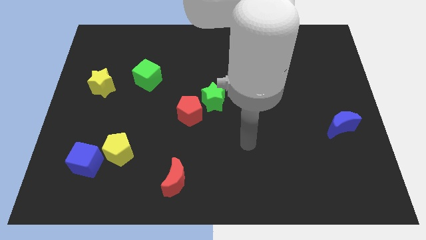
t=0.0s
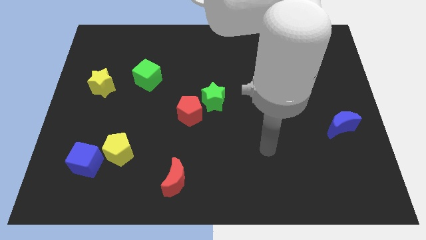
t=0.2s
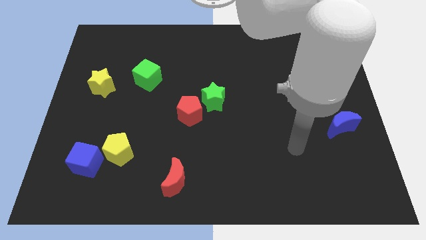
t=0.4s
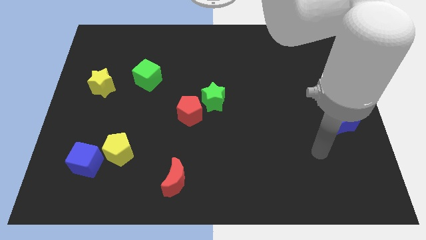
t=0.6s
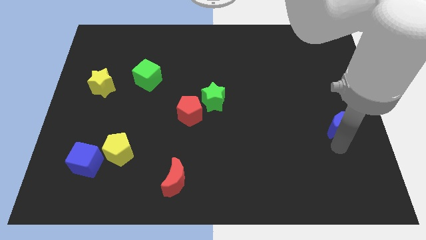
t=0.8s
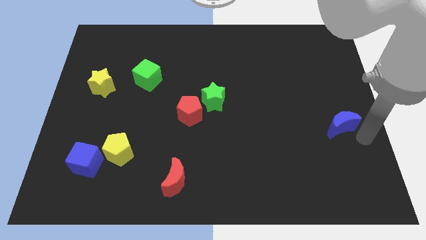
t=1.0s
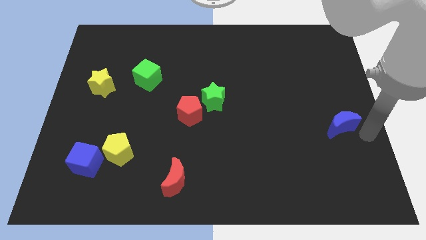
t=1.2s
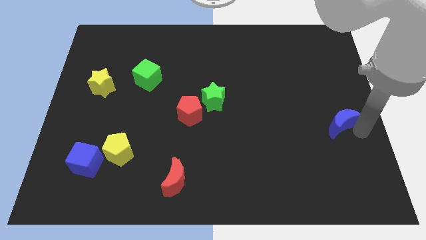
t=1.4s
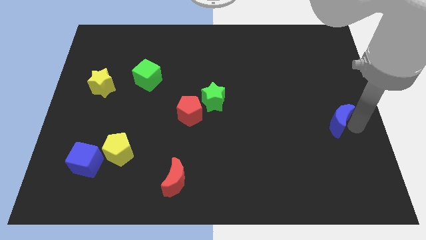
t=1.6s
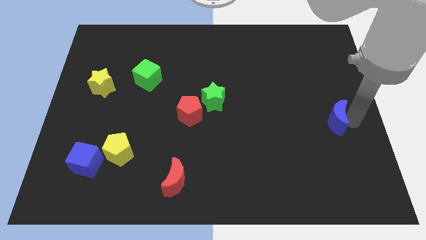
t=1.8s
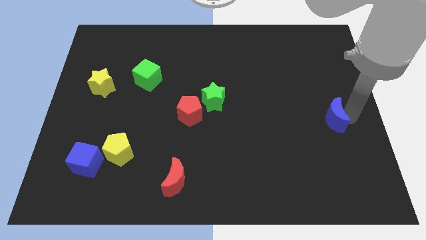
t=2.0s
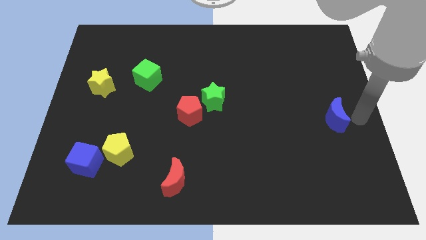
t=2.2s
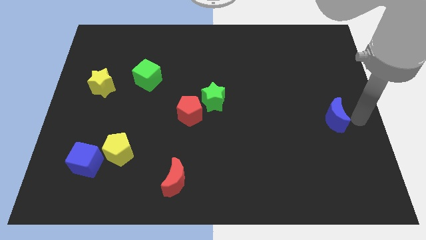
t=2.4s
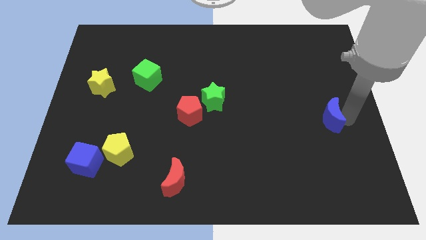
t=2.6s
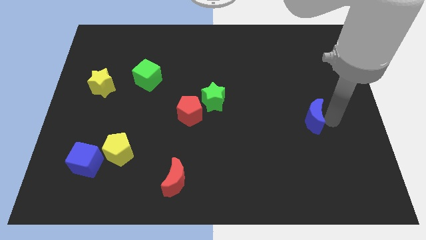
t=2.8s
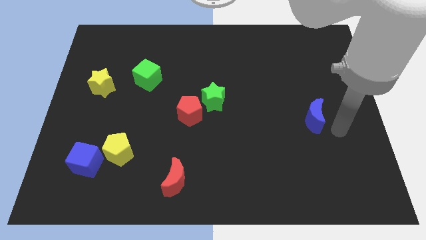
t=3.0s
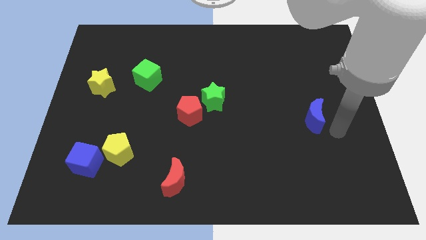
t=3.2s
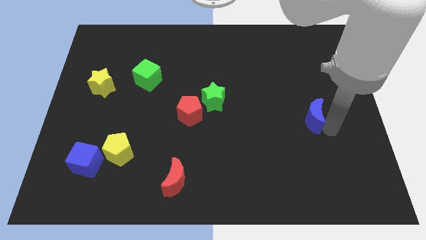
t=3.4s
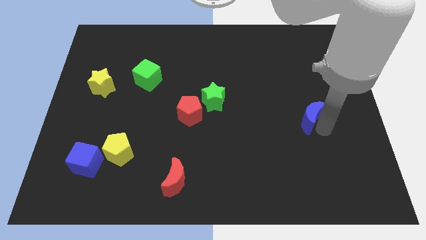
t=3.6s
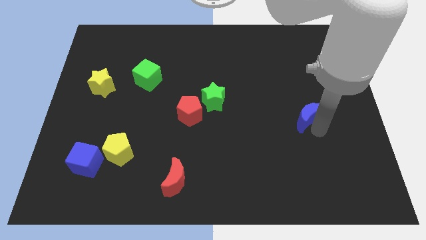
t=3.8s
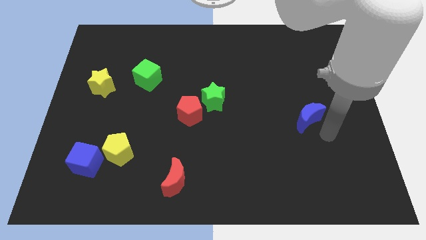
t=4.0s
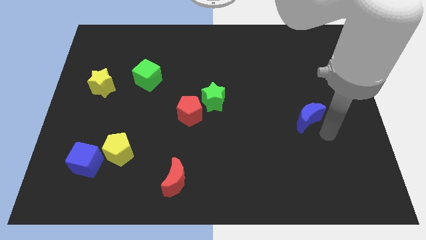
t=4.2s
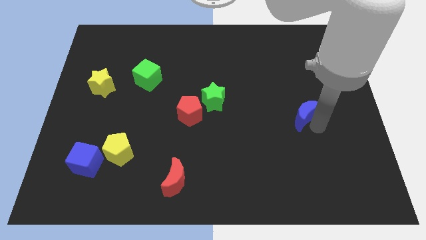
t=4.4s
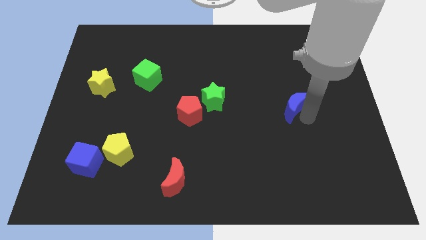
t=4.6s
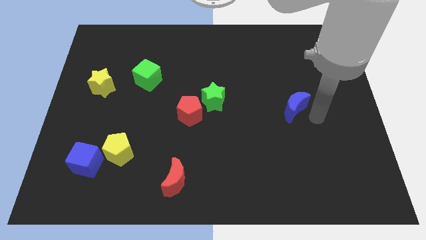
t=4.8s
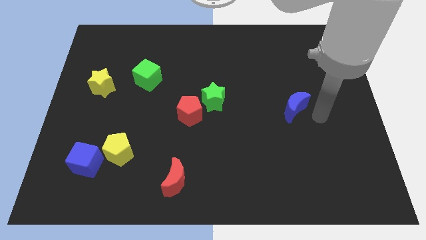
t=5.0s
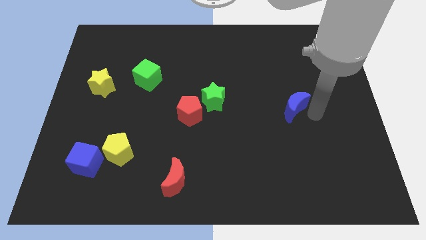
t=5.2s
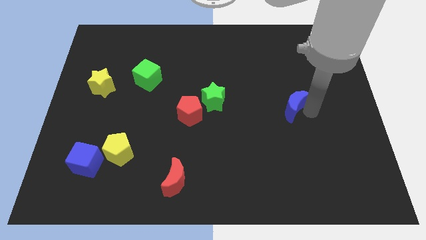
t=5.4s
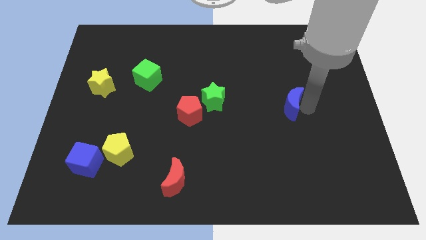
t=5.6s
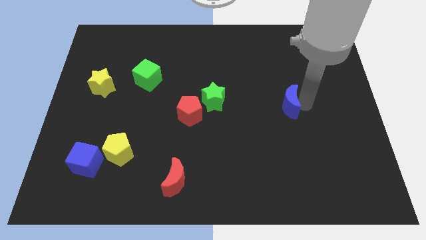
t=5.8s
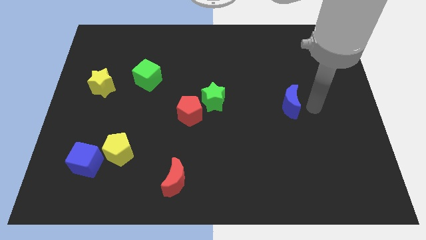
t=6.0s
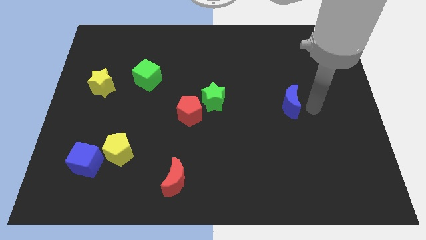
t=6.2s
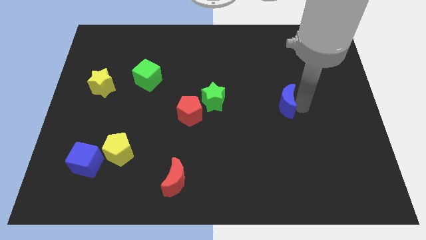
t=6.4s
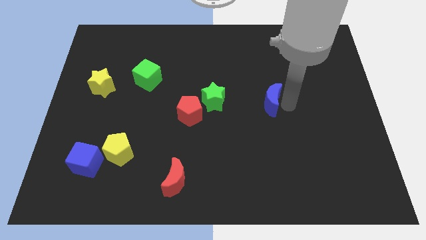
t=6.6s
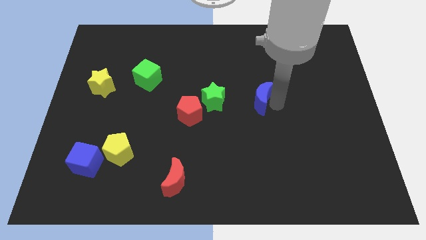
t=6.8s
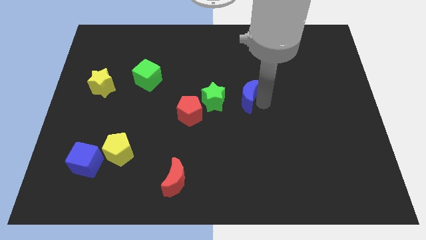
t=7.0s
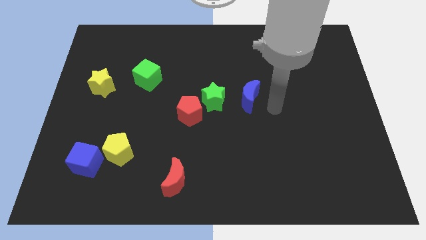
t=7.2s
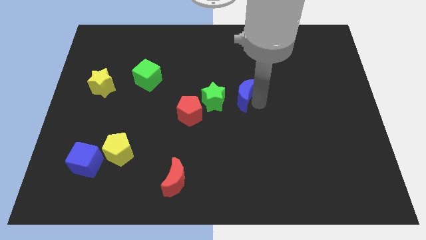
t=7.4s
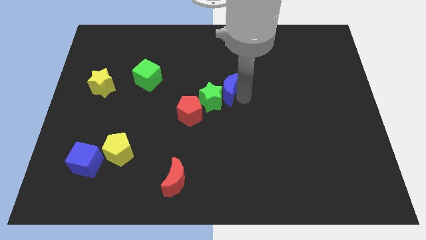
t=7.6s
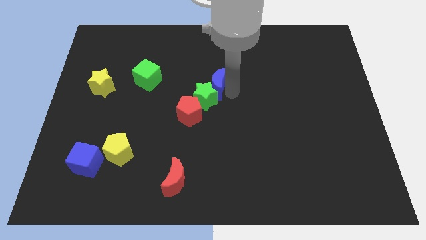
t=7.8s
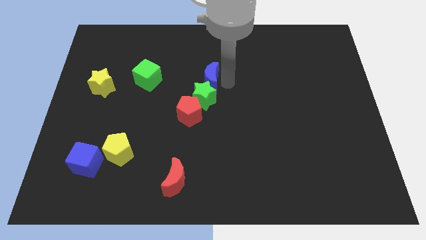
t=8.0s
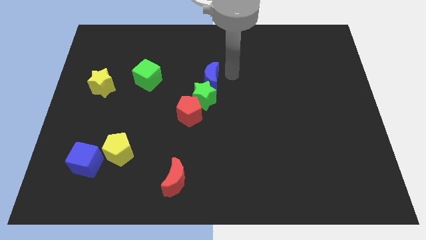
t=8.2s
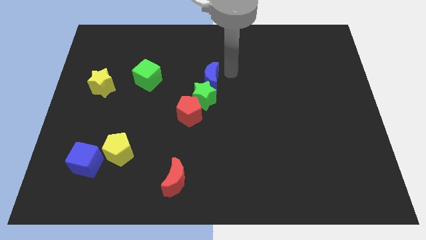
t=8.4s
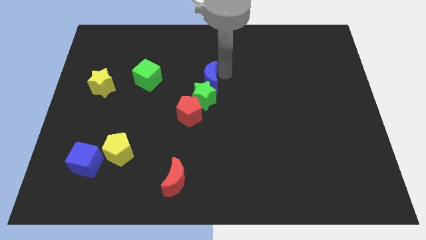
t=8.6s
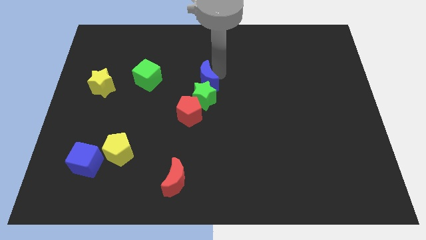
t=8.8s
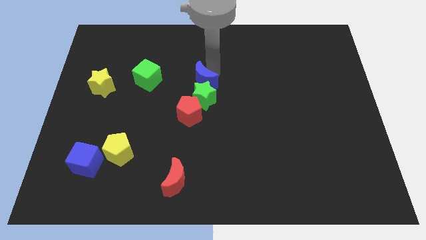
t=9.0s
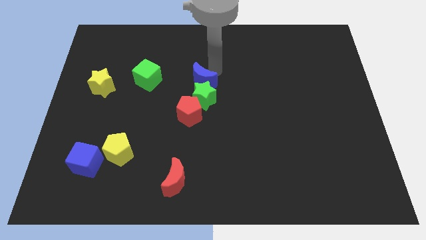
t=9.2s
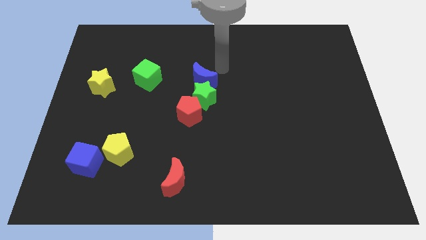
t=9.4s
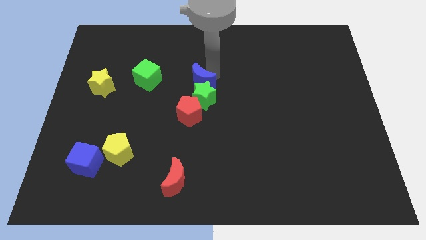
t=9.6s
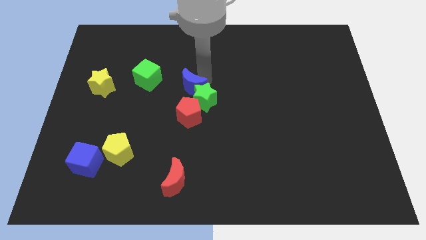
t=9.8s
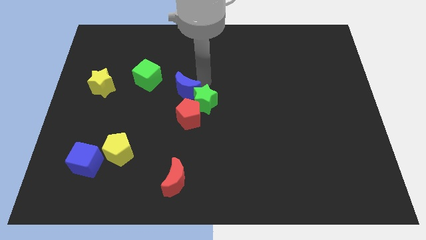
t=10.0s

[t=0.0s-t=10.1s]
move the blue moon to the top left side of the red pentagon

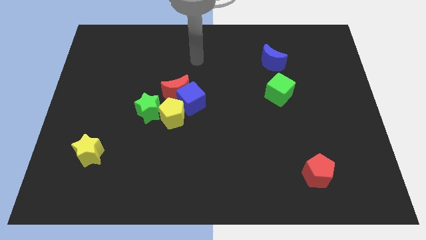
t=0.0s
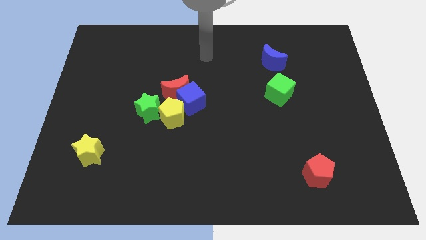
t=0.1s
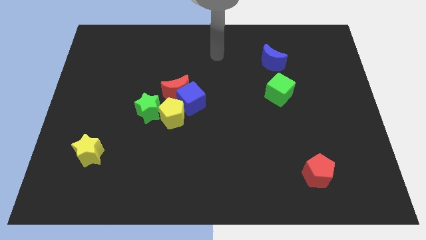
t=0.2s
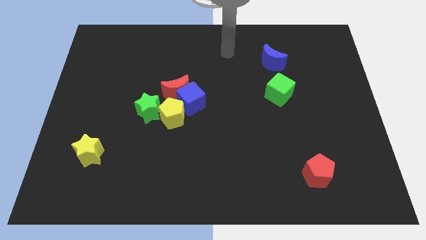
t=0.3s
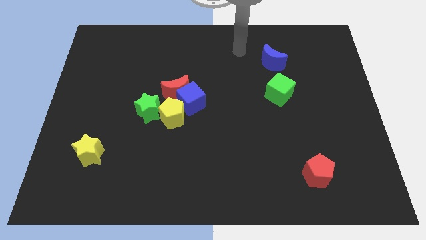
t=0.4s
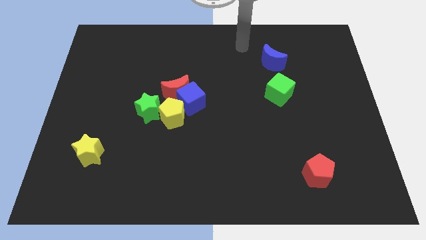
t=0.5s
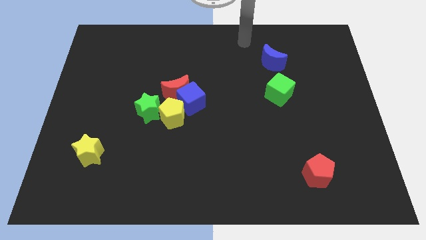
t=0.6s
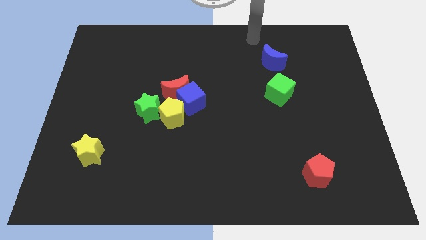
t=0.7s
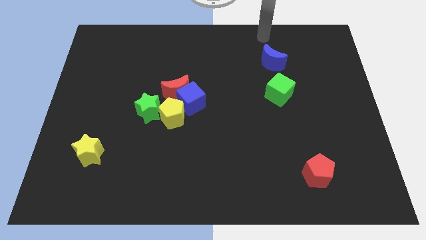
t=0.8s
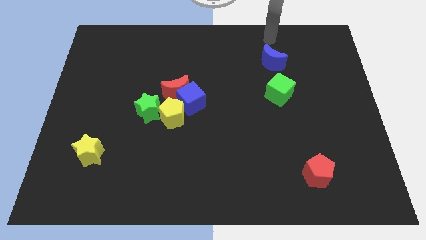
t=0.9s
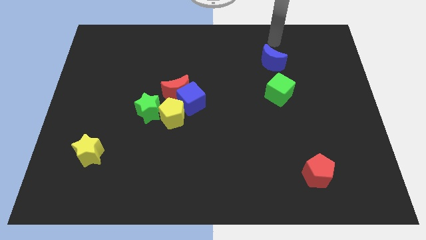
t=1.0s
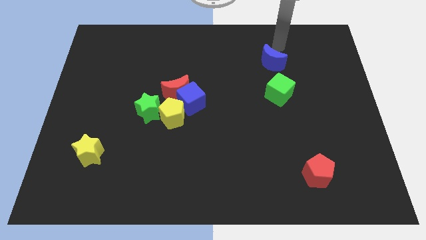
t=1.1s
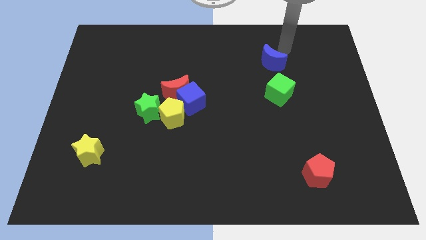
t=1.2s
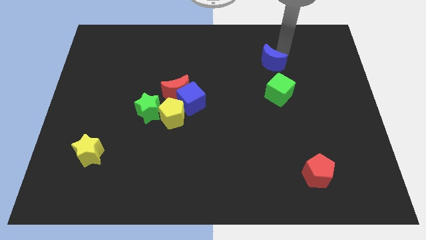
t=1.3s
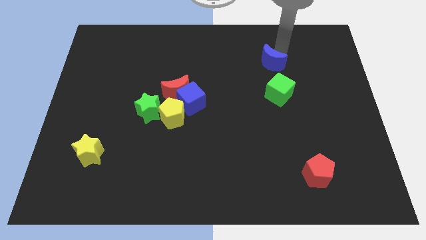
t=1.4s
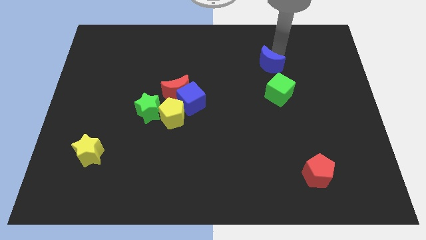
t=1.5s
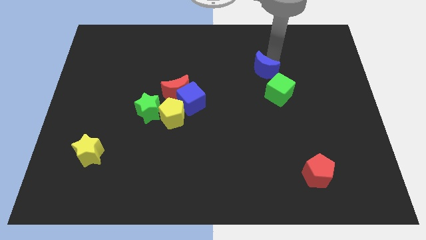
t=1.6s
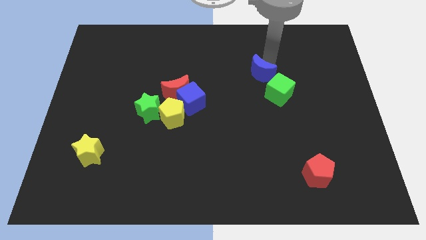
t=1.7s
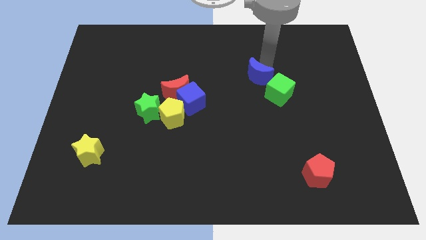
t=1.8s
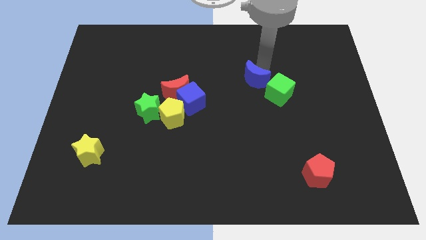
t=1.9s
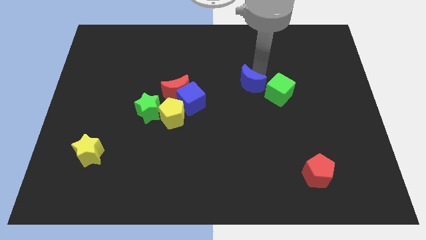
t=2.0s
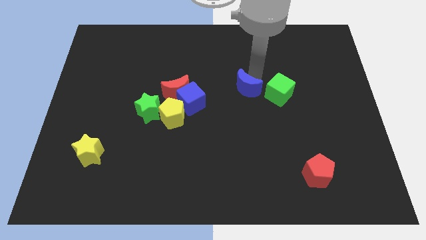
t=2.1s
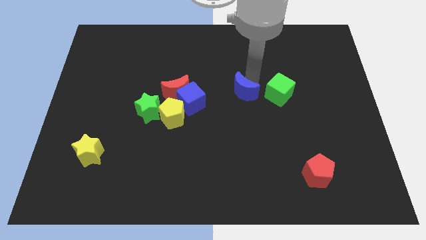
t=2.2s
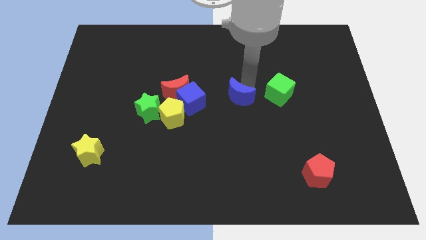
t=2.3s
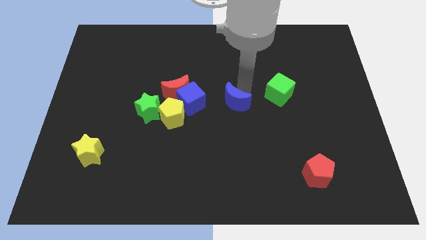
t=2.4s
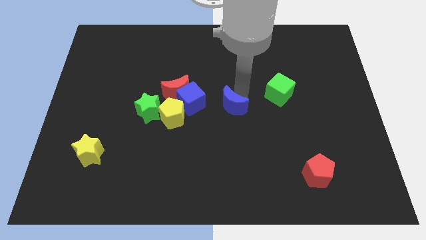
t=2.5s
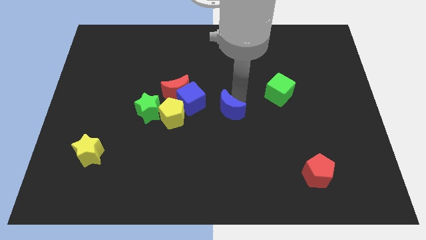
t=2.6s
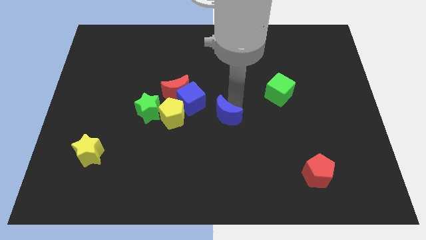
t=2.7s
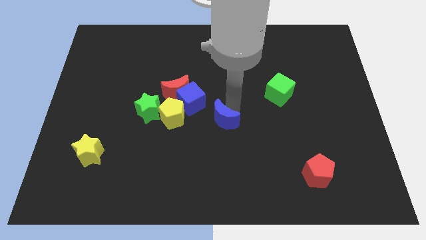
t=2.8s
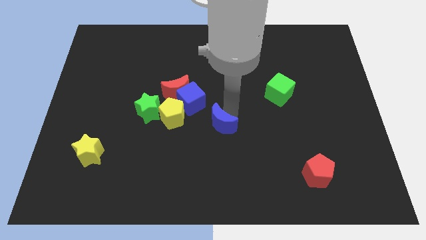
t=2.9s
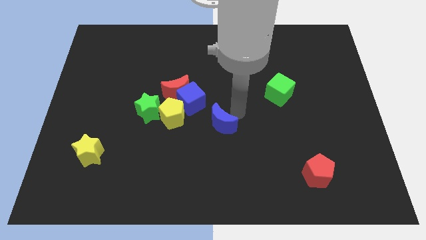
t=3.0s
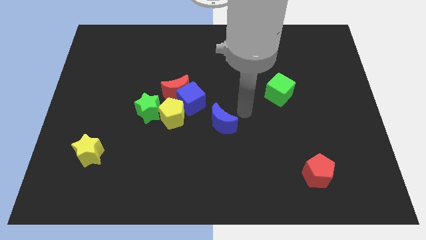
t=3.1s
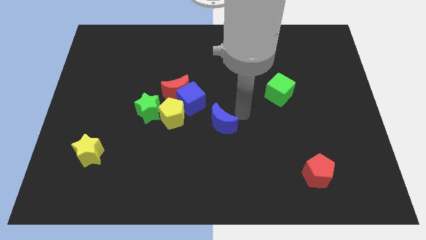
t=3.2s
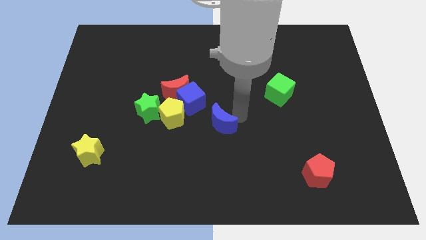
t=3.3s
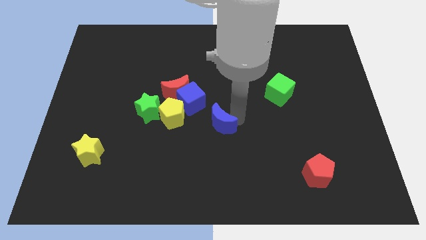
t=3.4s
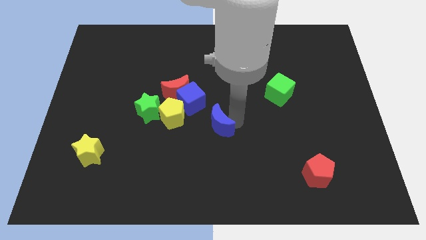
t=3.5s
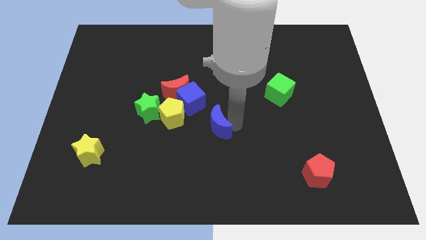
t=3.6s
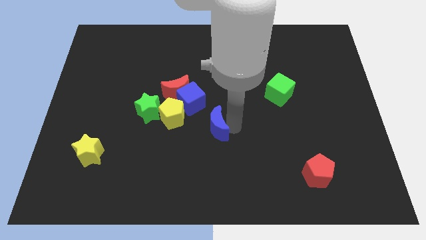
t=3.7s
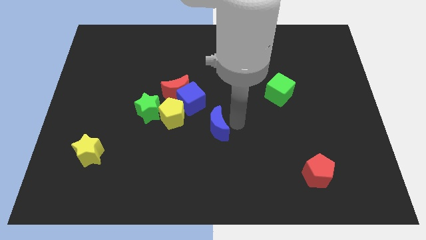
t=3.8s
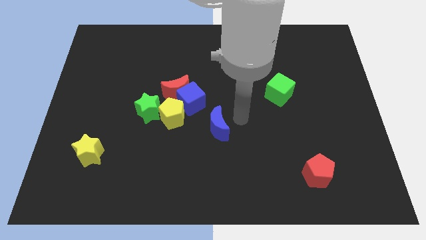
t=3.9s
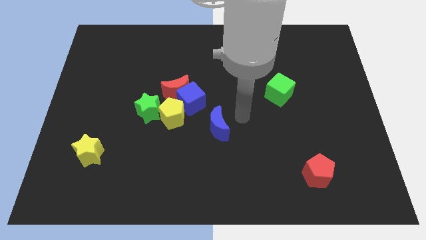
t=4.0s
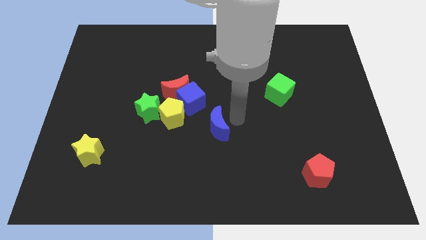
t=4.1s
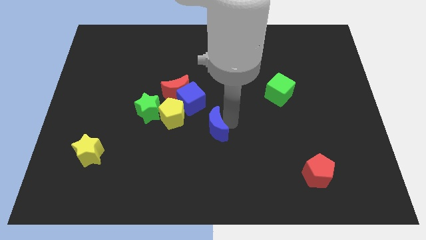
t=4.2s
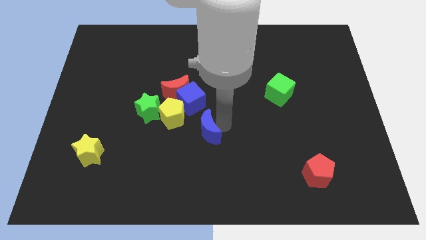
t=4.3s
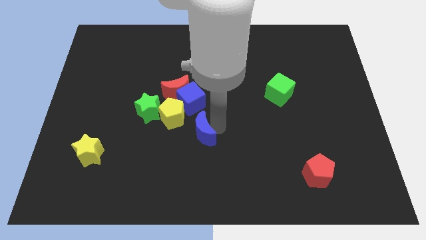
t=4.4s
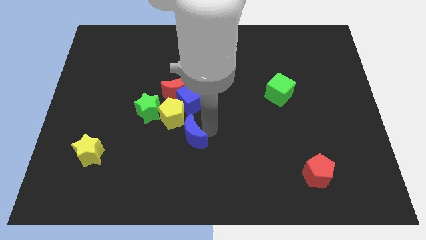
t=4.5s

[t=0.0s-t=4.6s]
move the blue moon to the bottom side of the yellow pentagon
